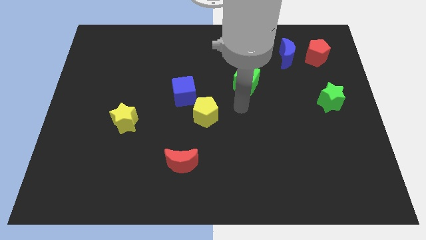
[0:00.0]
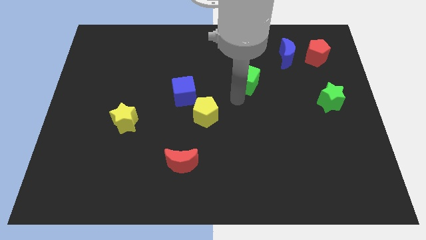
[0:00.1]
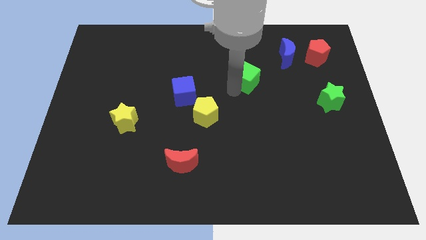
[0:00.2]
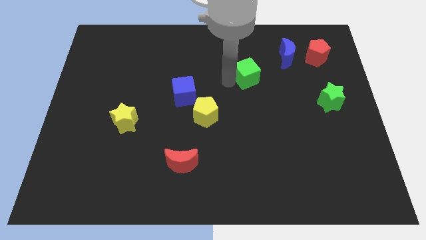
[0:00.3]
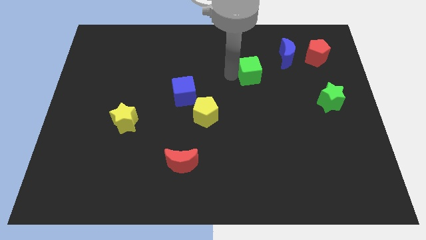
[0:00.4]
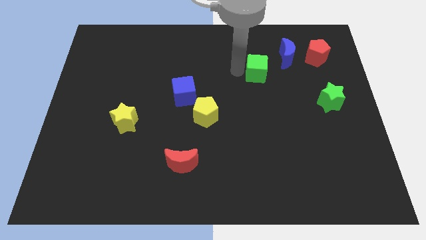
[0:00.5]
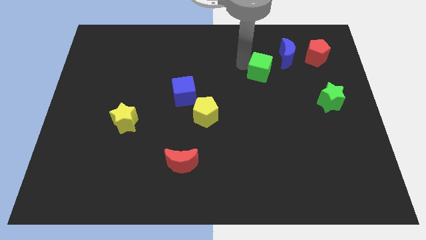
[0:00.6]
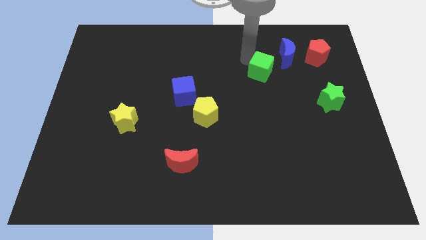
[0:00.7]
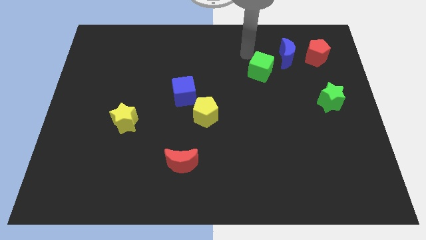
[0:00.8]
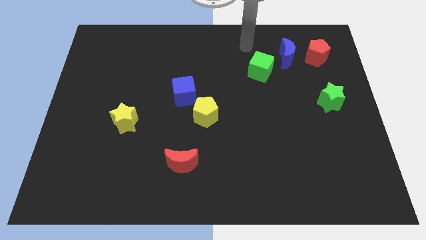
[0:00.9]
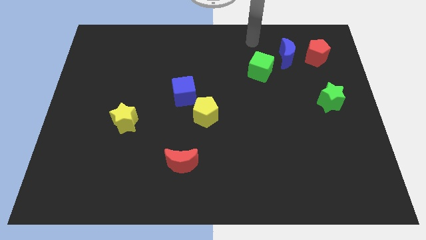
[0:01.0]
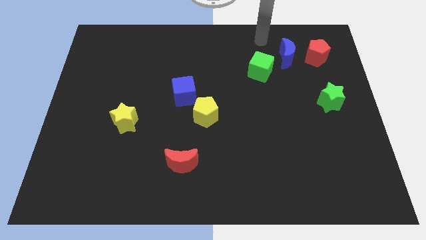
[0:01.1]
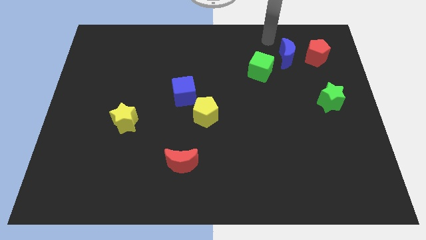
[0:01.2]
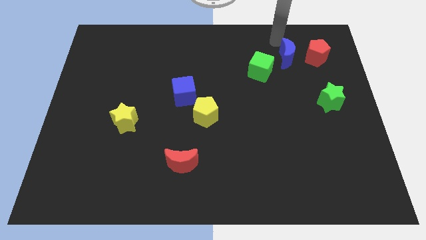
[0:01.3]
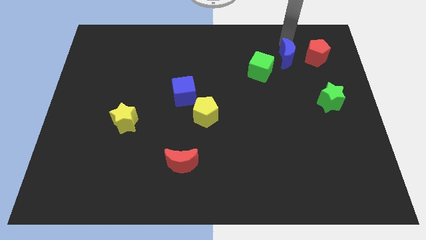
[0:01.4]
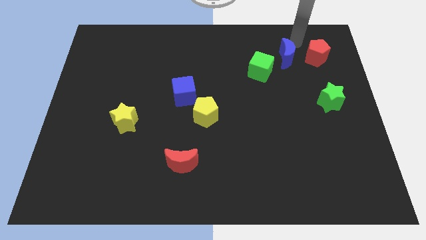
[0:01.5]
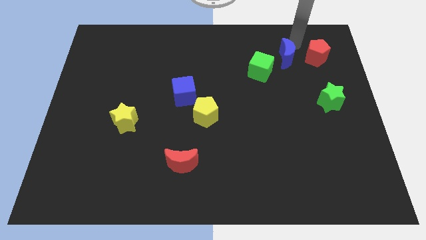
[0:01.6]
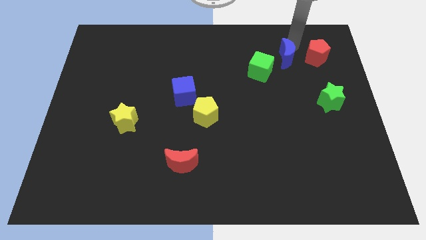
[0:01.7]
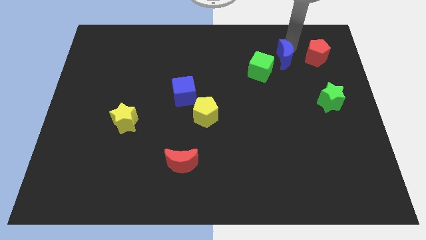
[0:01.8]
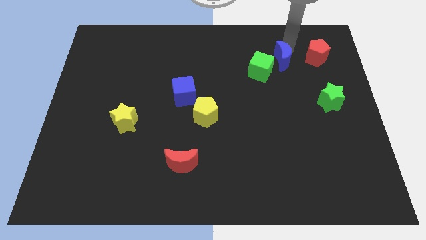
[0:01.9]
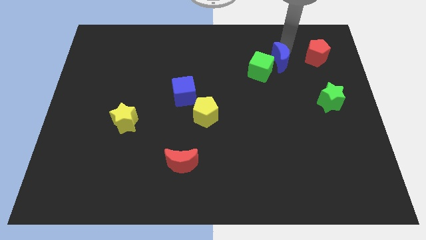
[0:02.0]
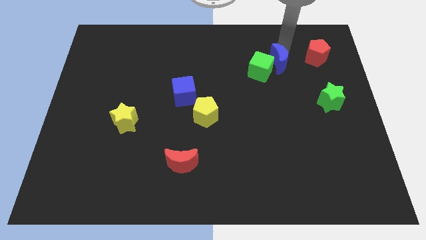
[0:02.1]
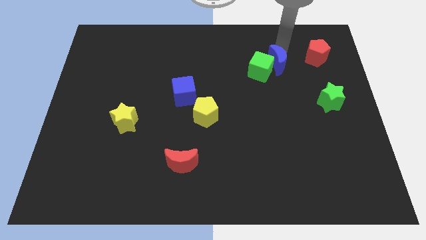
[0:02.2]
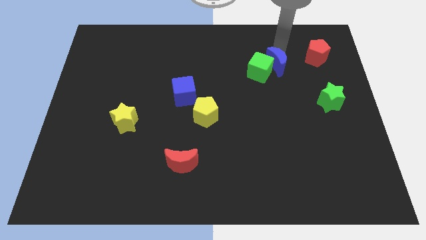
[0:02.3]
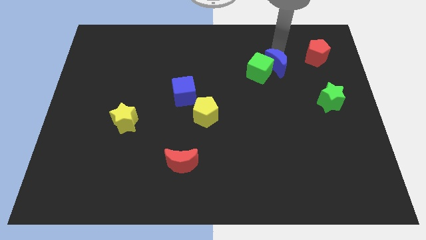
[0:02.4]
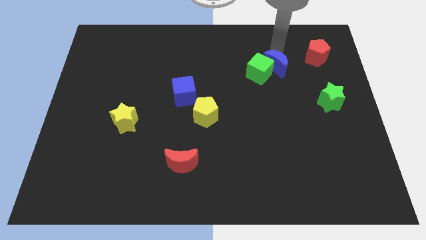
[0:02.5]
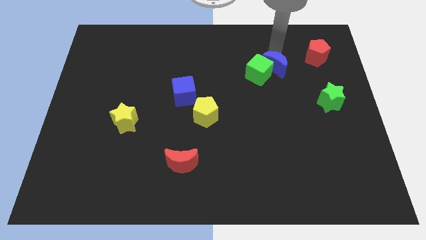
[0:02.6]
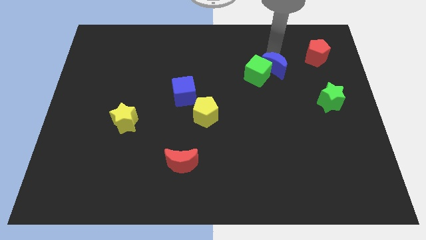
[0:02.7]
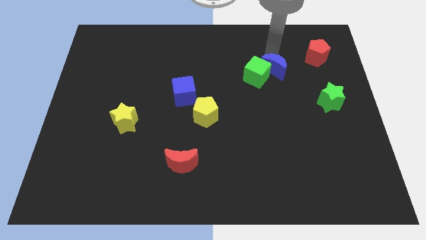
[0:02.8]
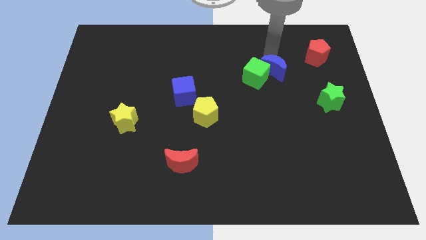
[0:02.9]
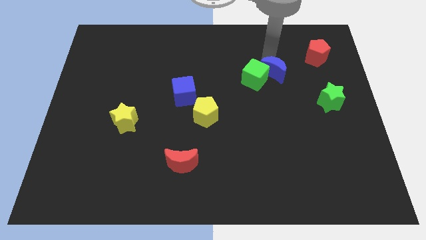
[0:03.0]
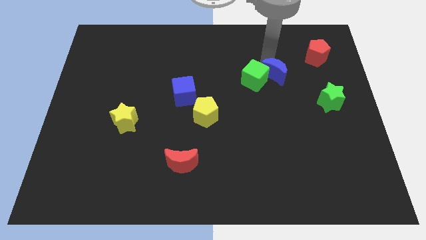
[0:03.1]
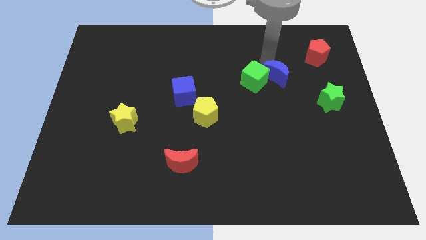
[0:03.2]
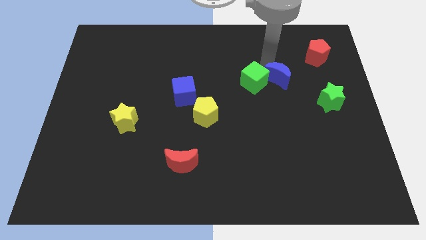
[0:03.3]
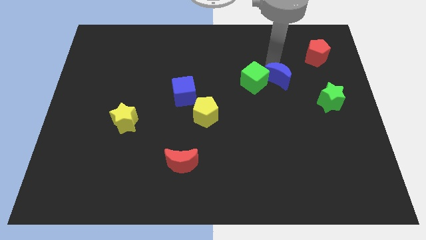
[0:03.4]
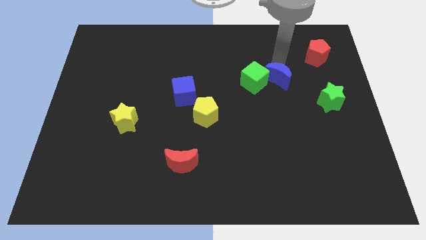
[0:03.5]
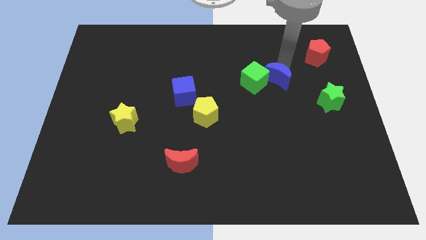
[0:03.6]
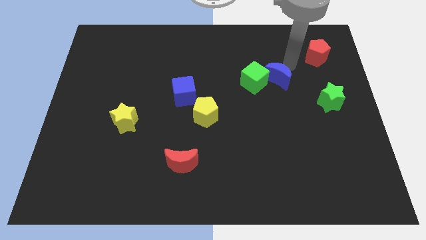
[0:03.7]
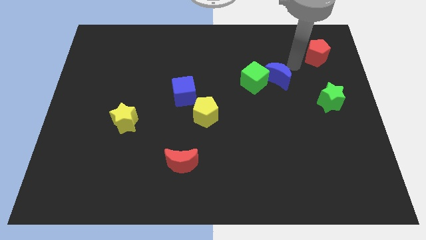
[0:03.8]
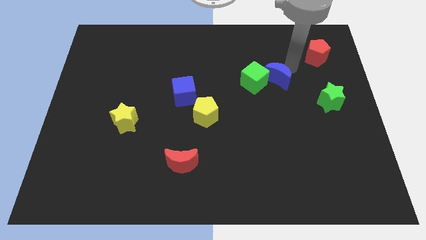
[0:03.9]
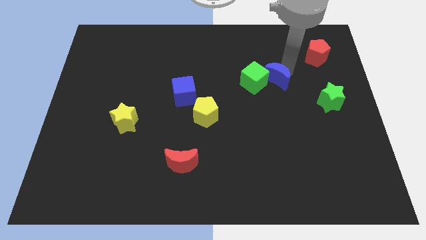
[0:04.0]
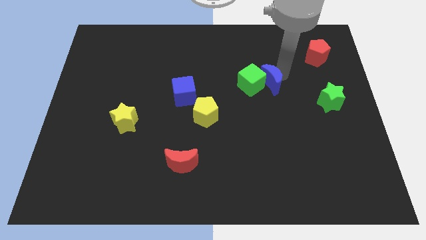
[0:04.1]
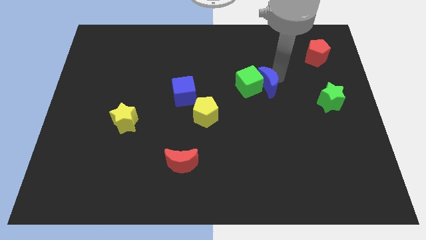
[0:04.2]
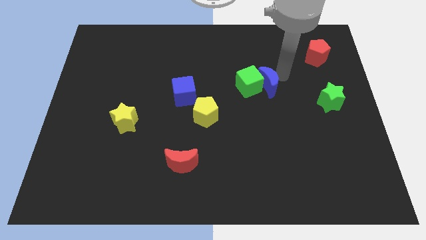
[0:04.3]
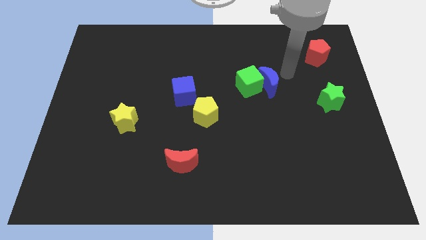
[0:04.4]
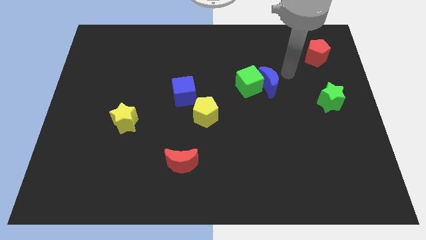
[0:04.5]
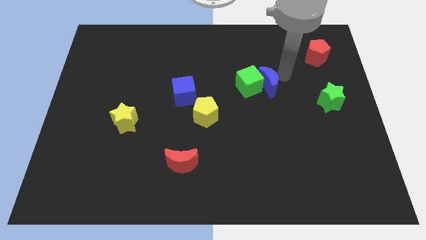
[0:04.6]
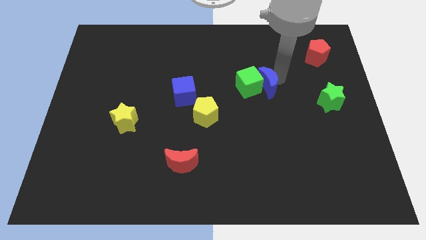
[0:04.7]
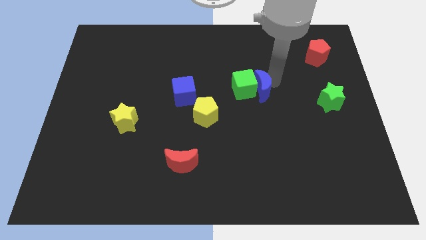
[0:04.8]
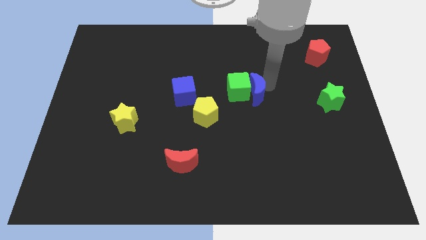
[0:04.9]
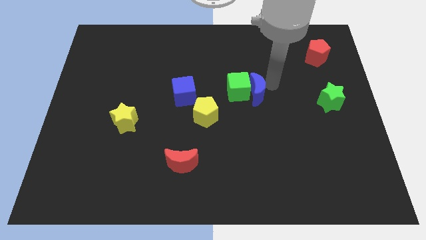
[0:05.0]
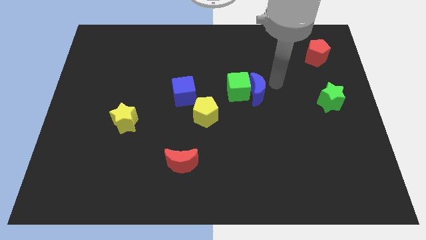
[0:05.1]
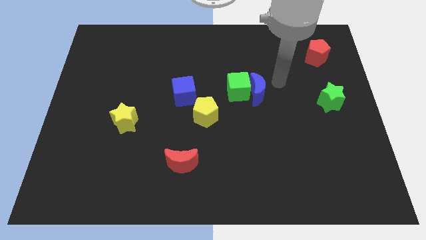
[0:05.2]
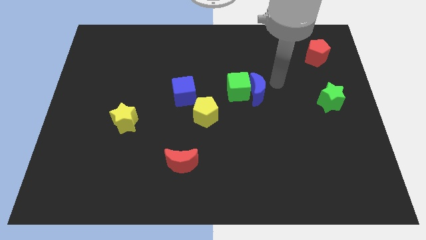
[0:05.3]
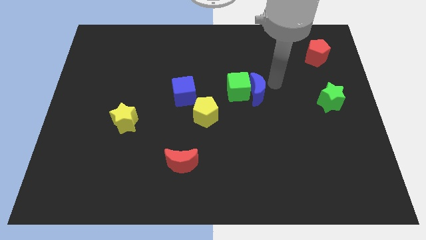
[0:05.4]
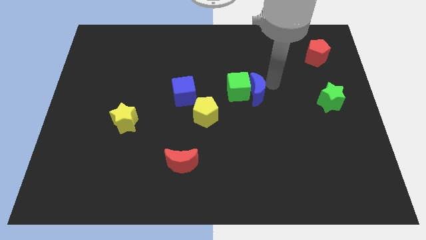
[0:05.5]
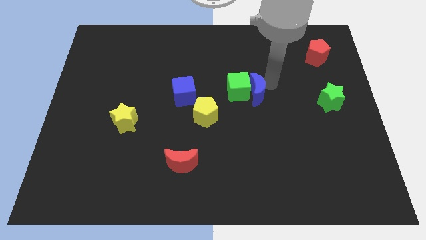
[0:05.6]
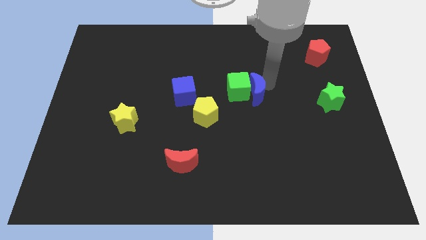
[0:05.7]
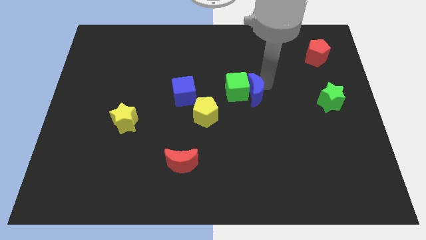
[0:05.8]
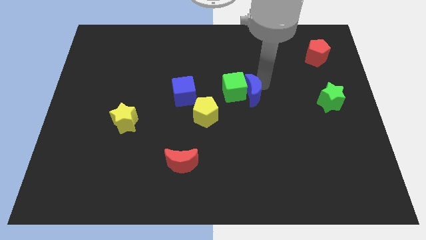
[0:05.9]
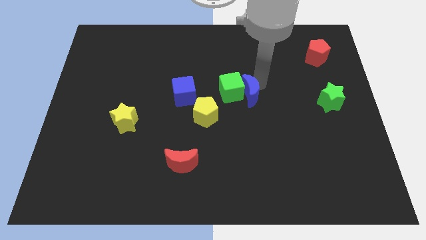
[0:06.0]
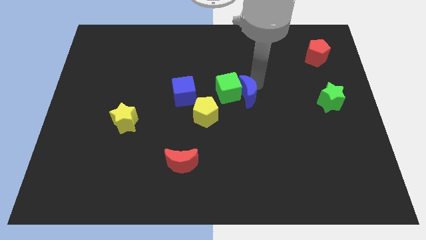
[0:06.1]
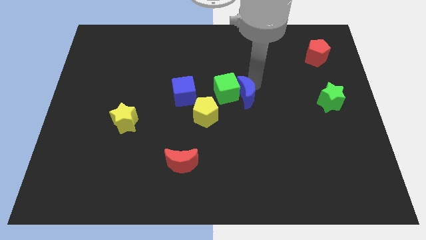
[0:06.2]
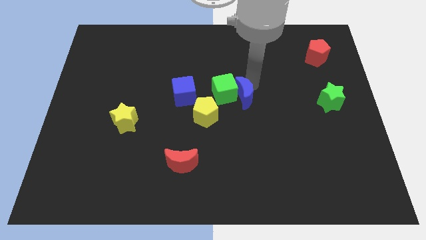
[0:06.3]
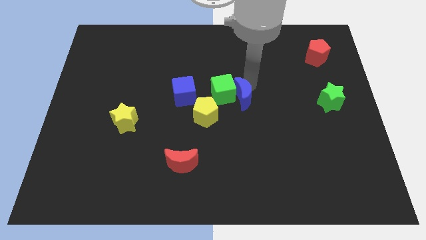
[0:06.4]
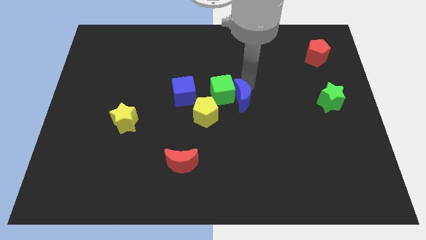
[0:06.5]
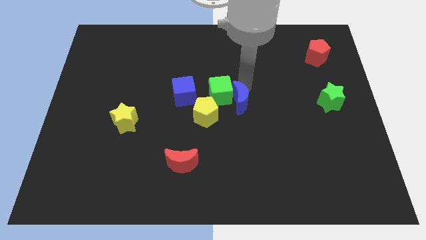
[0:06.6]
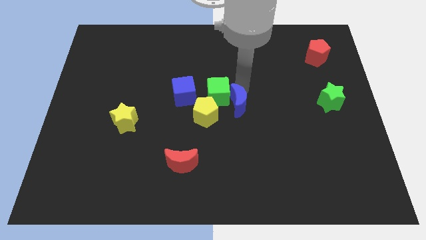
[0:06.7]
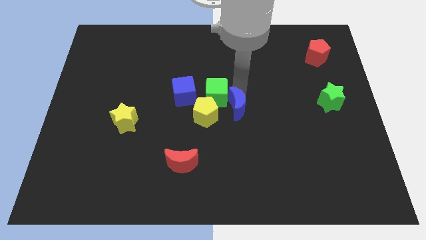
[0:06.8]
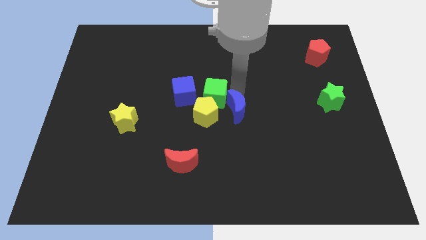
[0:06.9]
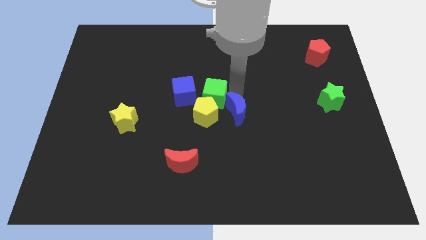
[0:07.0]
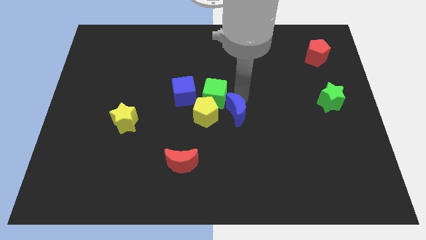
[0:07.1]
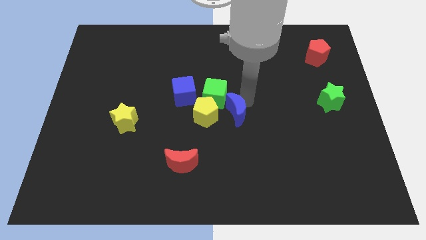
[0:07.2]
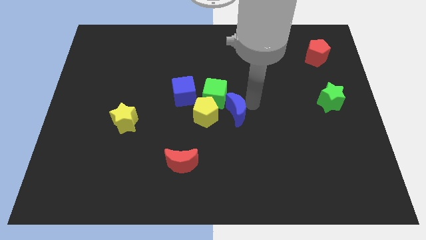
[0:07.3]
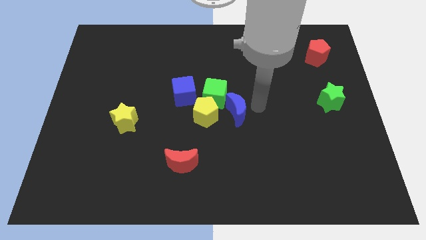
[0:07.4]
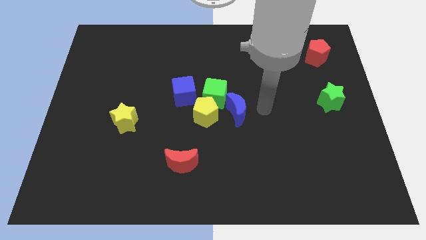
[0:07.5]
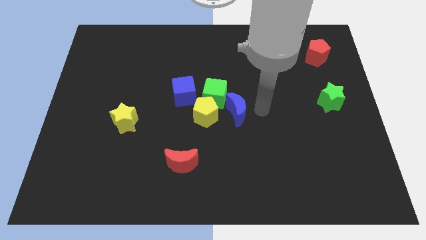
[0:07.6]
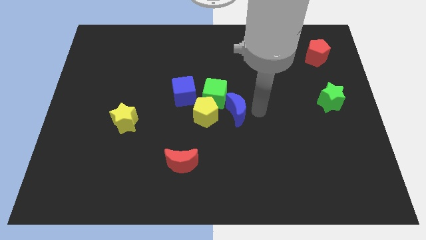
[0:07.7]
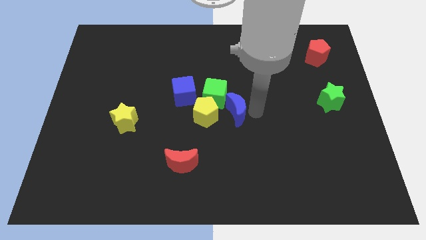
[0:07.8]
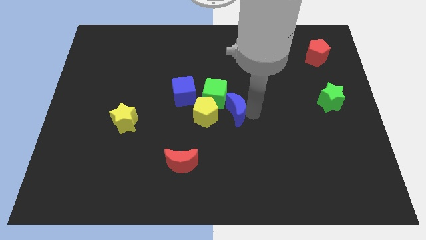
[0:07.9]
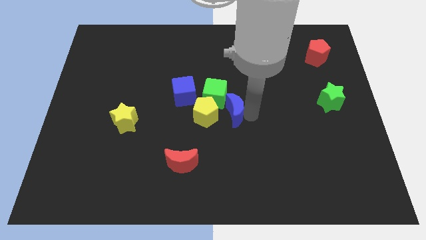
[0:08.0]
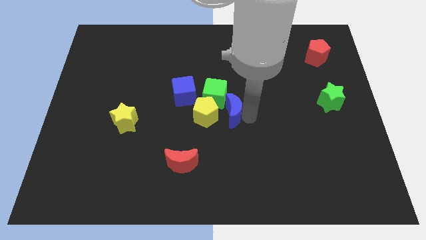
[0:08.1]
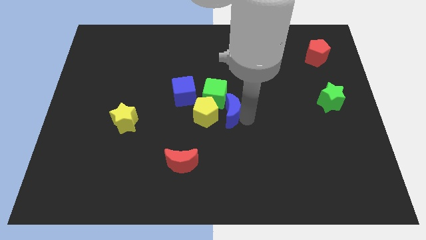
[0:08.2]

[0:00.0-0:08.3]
put the blue moon next to the yellow pentagon
